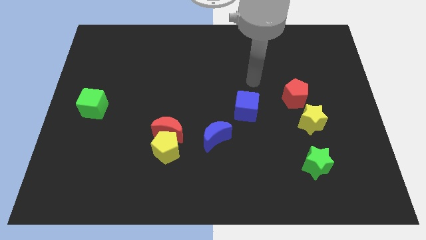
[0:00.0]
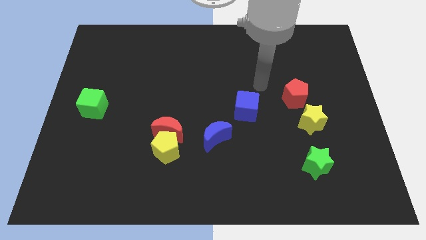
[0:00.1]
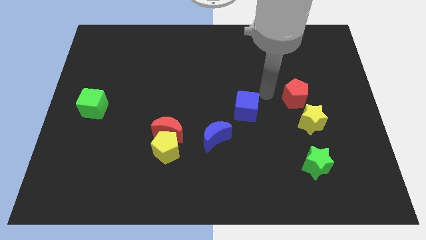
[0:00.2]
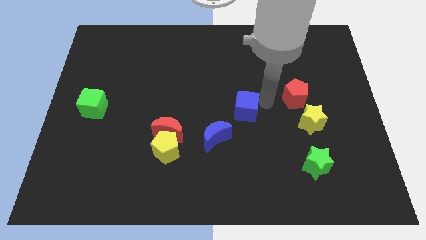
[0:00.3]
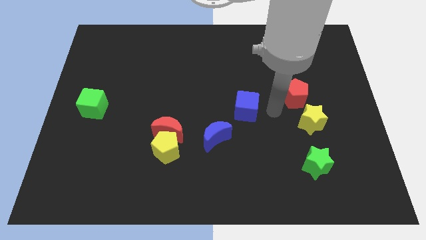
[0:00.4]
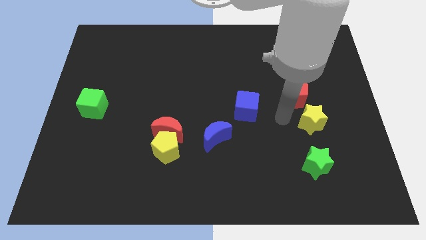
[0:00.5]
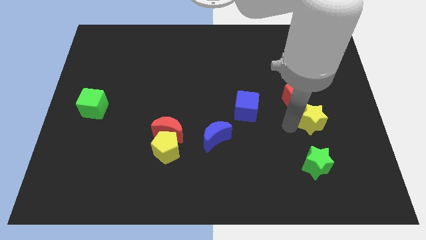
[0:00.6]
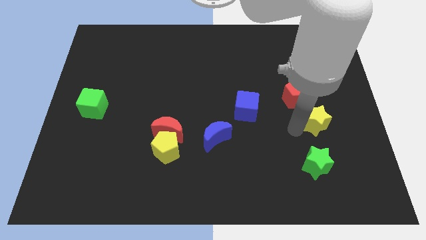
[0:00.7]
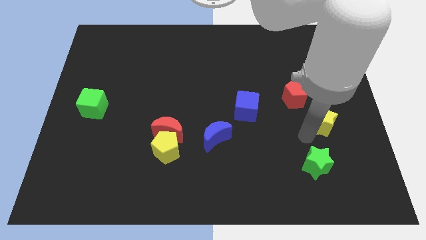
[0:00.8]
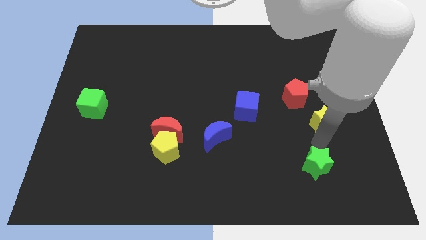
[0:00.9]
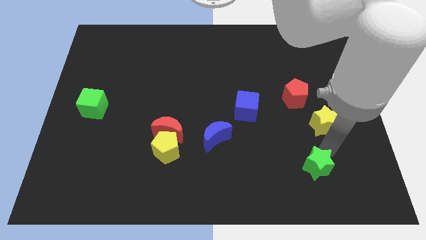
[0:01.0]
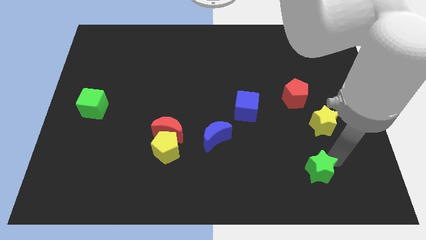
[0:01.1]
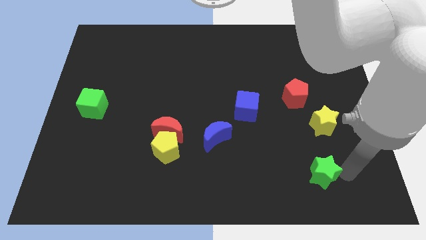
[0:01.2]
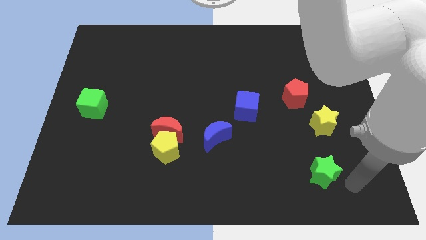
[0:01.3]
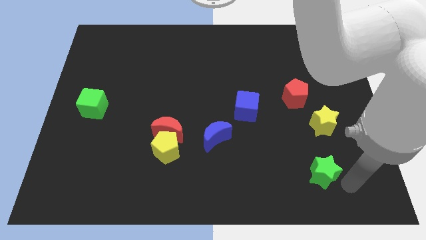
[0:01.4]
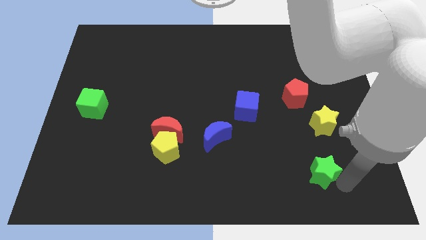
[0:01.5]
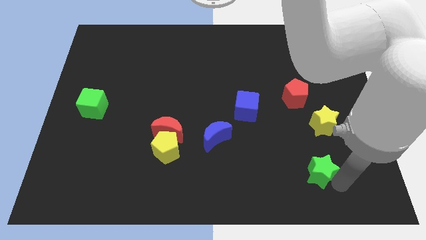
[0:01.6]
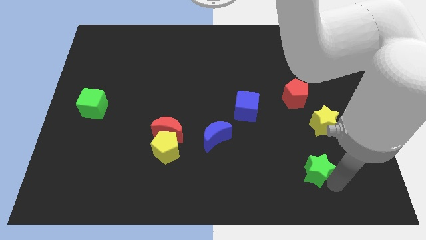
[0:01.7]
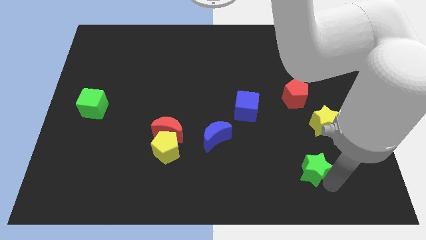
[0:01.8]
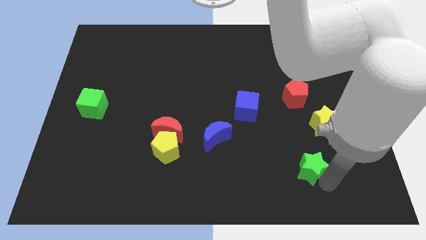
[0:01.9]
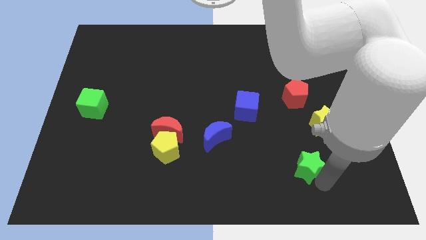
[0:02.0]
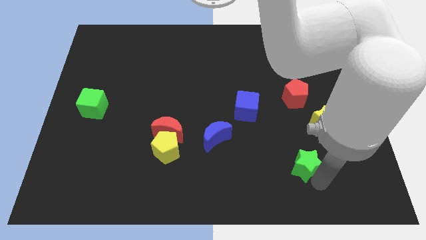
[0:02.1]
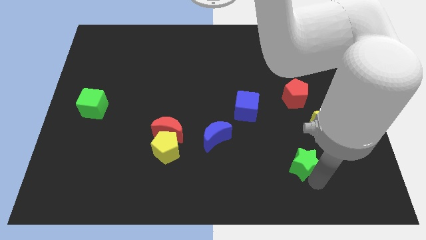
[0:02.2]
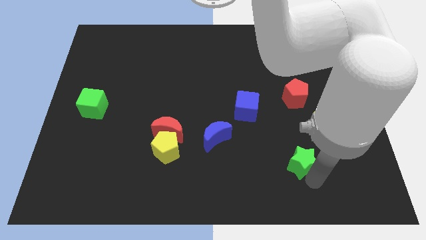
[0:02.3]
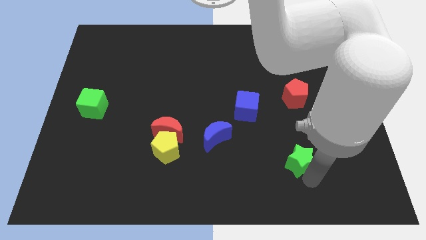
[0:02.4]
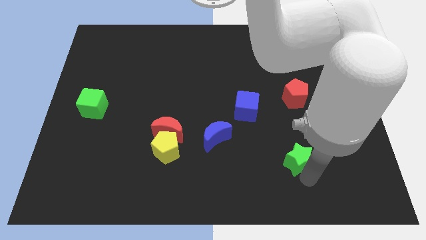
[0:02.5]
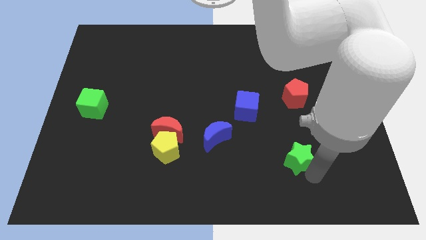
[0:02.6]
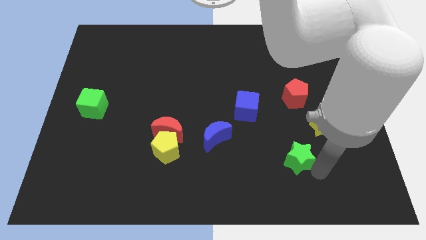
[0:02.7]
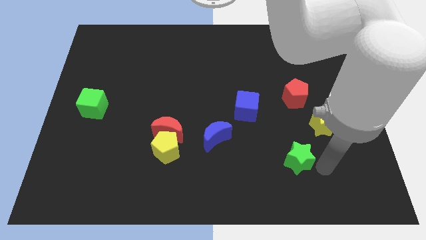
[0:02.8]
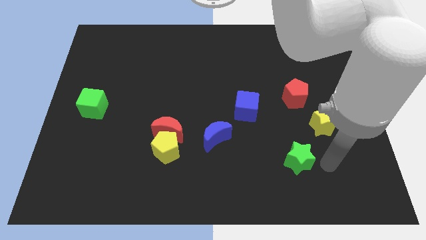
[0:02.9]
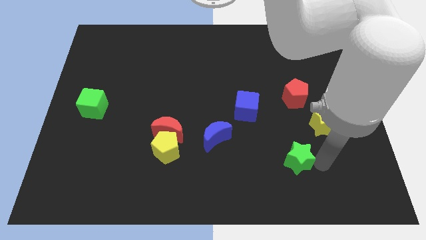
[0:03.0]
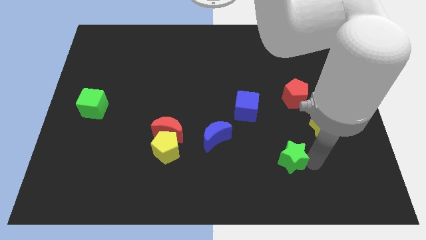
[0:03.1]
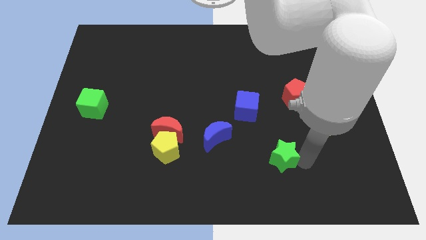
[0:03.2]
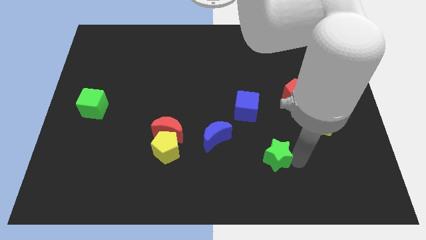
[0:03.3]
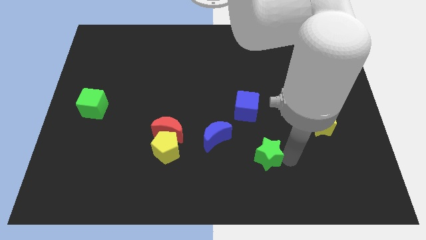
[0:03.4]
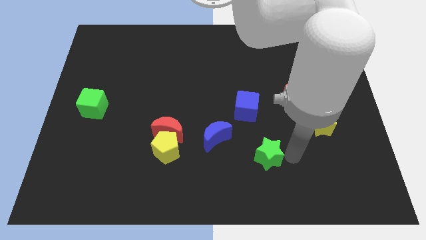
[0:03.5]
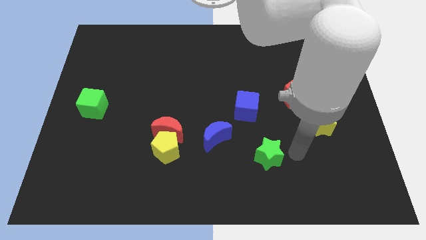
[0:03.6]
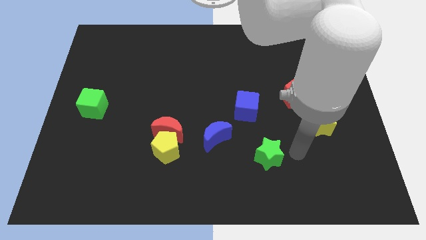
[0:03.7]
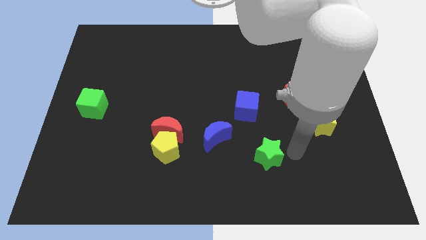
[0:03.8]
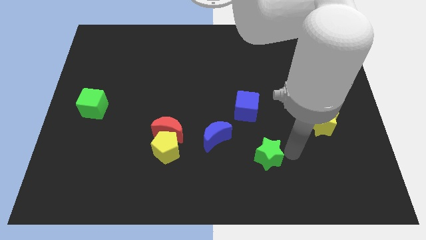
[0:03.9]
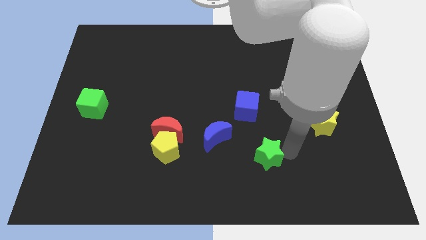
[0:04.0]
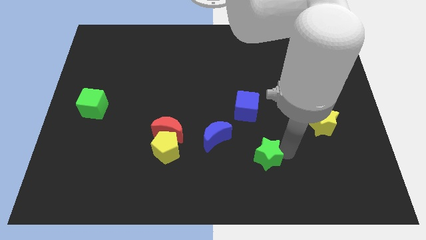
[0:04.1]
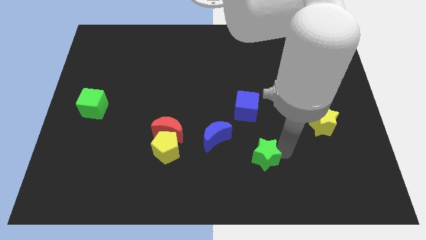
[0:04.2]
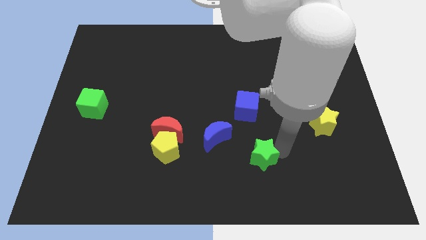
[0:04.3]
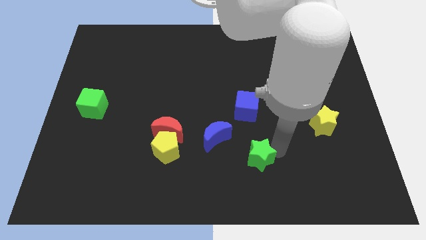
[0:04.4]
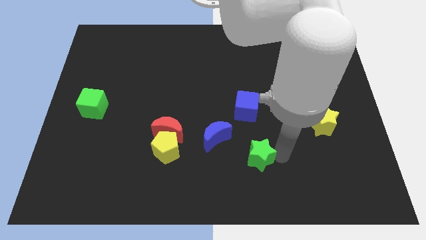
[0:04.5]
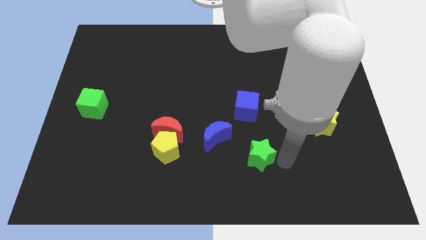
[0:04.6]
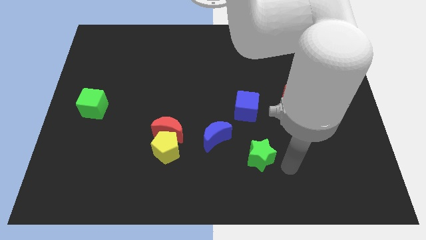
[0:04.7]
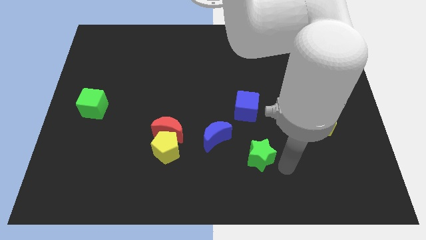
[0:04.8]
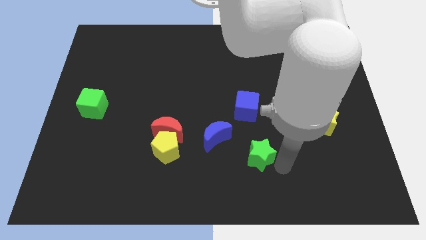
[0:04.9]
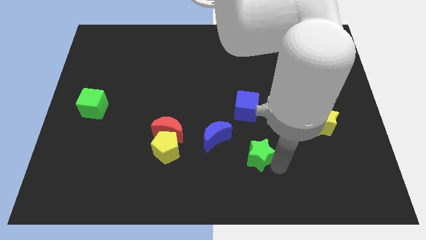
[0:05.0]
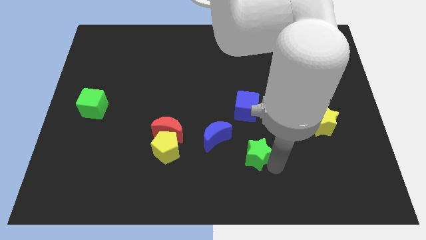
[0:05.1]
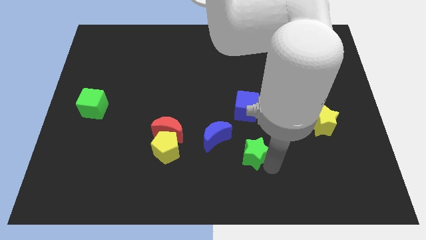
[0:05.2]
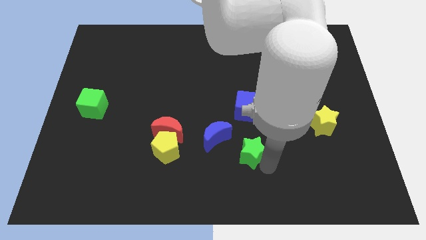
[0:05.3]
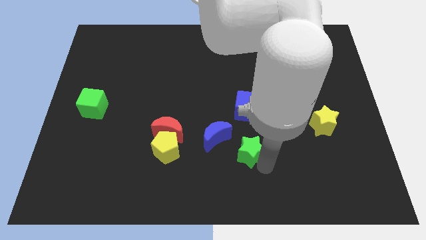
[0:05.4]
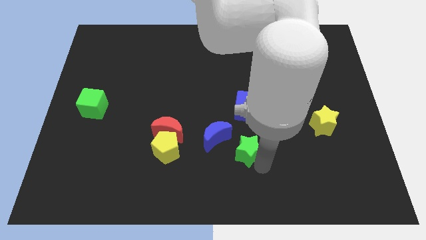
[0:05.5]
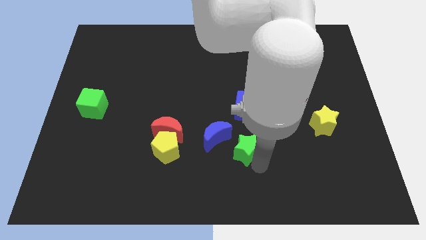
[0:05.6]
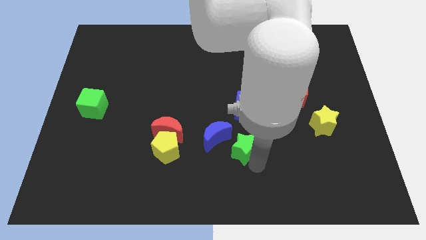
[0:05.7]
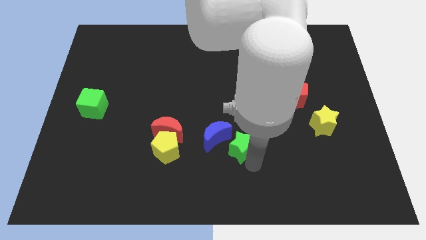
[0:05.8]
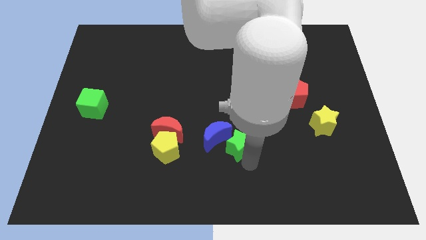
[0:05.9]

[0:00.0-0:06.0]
move the green star towards the blue moon

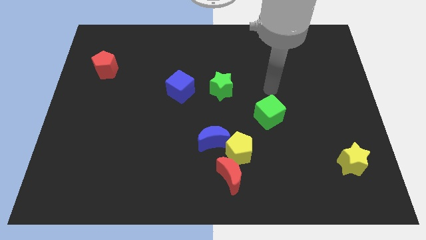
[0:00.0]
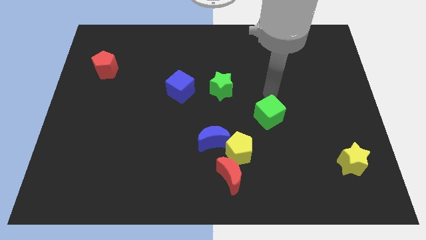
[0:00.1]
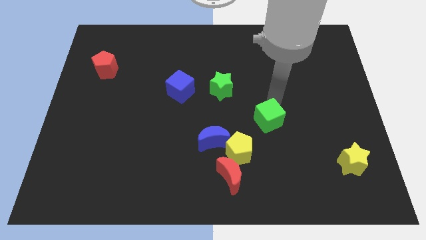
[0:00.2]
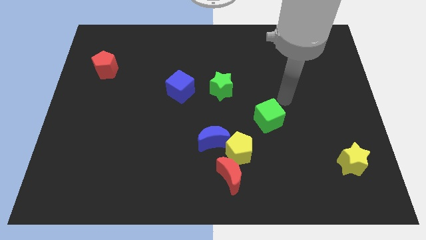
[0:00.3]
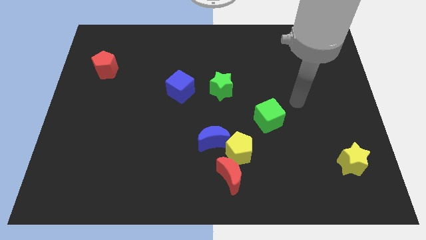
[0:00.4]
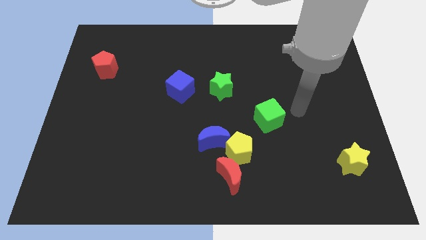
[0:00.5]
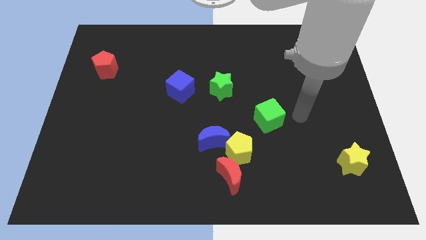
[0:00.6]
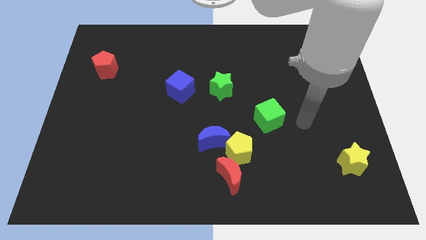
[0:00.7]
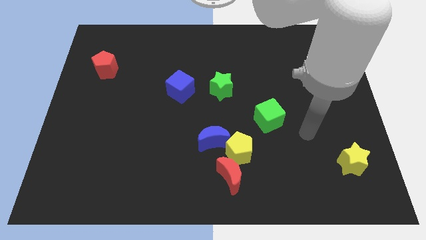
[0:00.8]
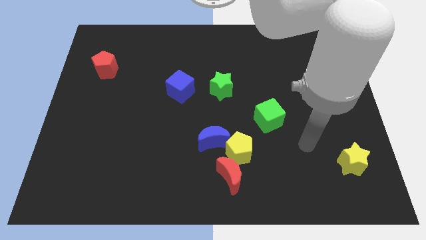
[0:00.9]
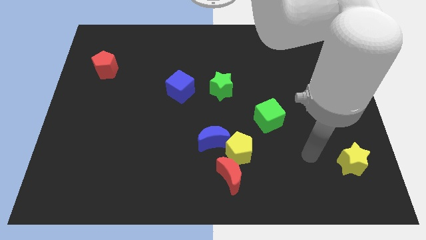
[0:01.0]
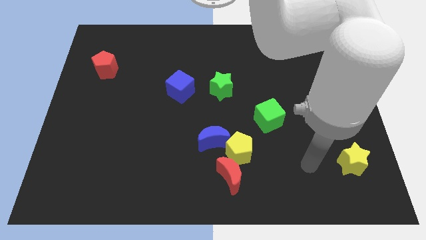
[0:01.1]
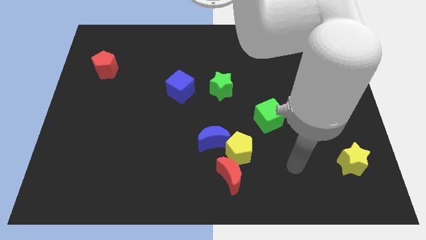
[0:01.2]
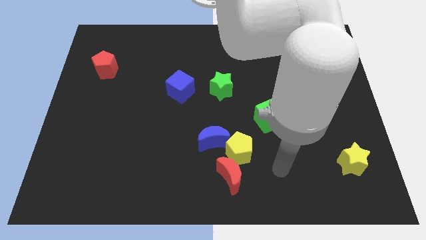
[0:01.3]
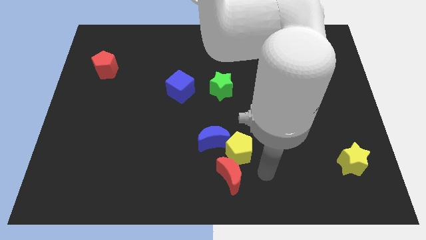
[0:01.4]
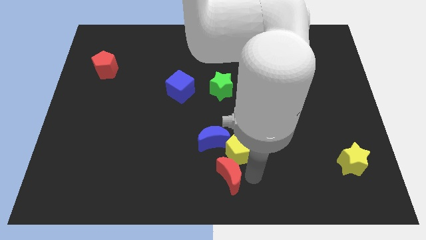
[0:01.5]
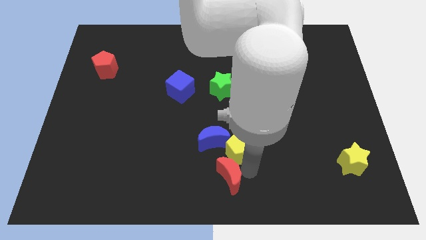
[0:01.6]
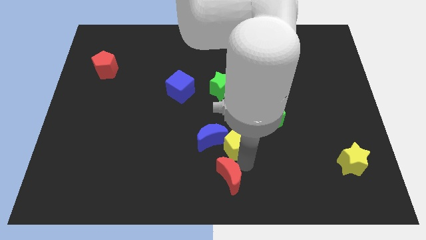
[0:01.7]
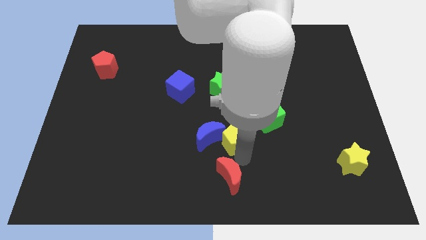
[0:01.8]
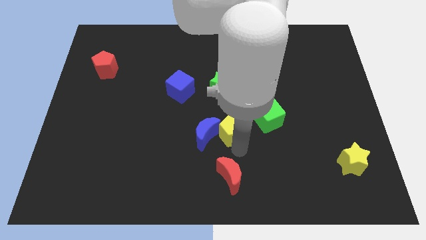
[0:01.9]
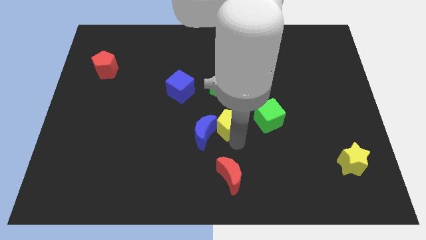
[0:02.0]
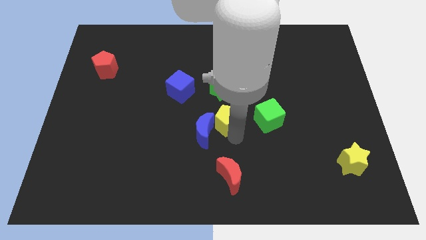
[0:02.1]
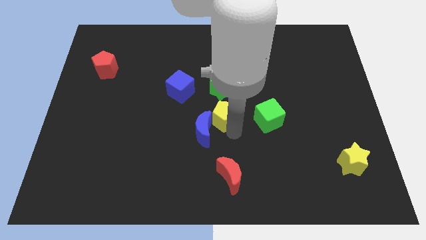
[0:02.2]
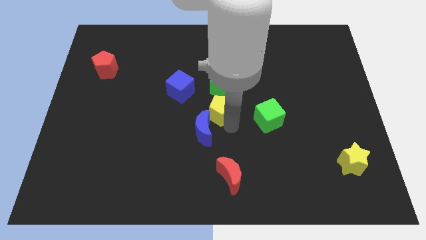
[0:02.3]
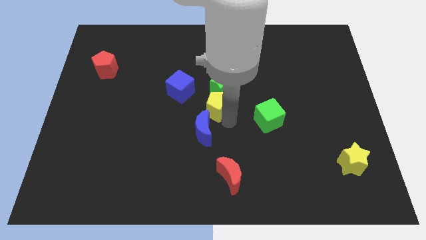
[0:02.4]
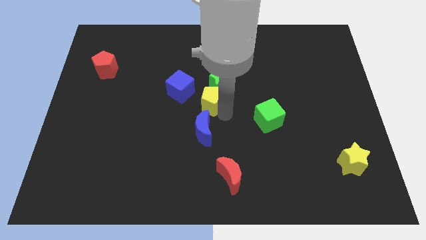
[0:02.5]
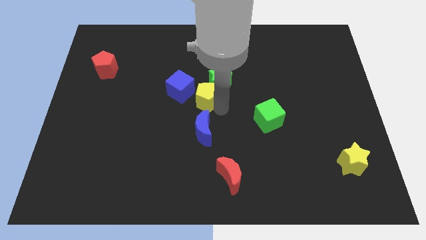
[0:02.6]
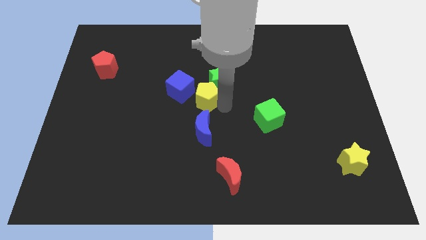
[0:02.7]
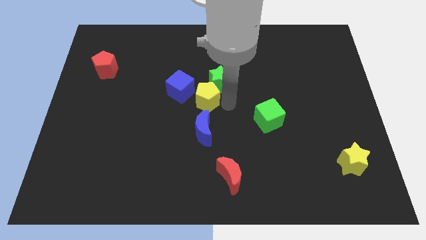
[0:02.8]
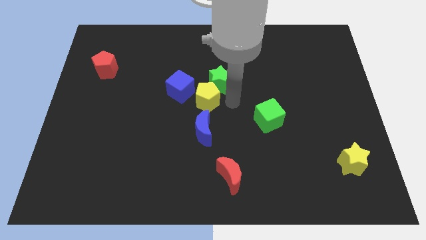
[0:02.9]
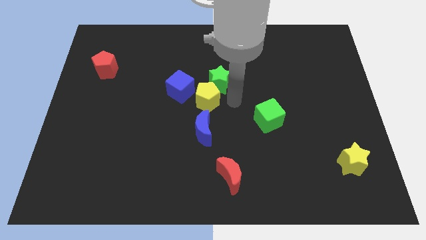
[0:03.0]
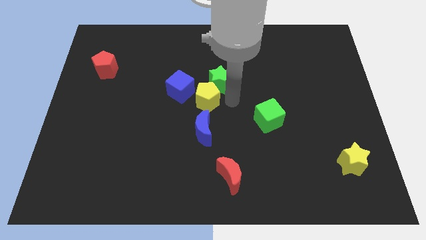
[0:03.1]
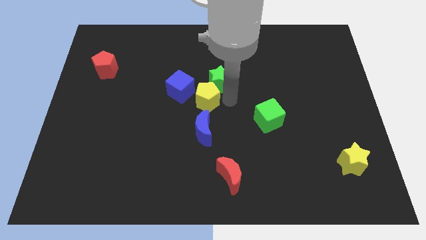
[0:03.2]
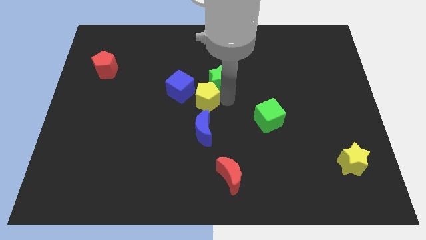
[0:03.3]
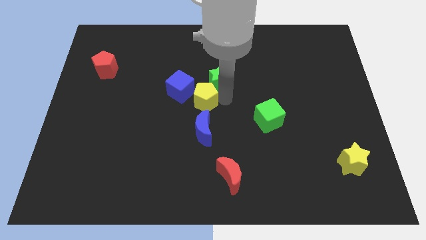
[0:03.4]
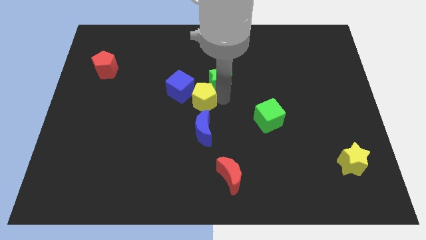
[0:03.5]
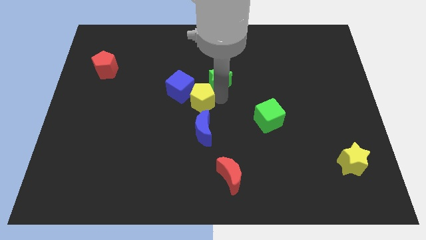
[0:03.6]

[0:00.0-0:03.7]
move the yellow pentagon to the blue cube
